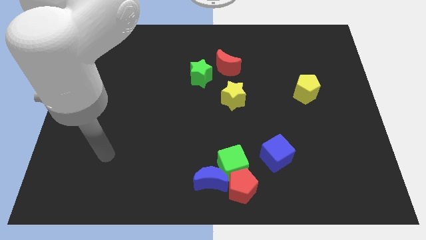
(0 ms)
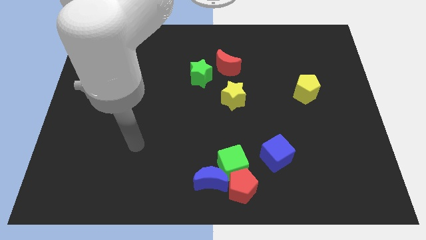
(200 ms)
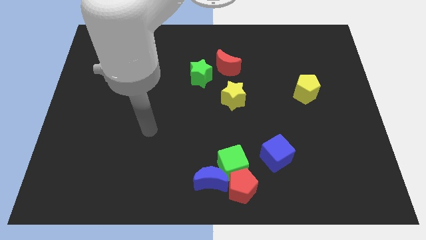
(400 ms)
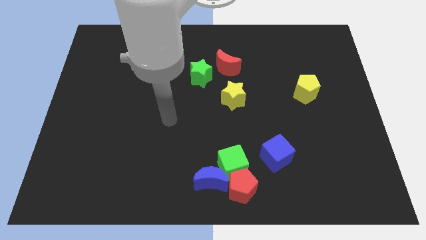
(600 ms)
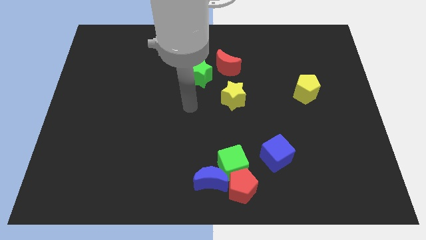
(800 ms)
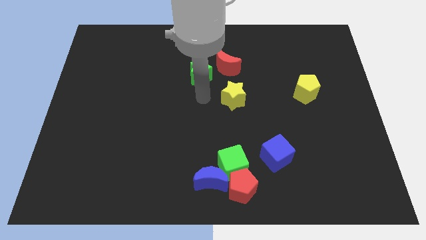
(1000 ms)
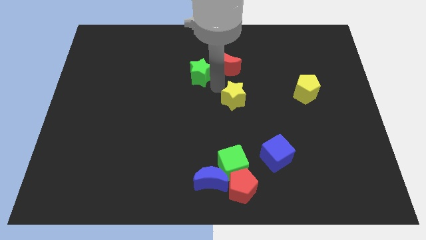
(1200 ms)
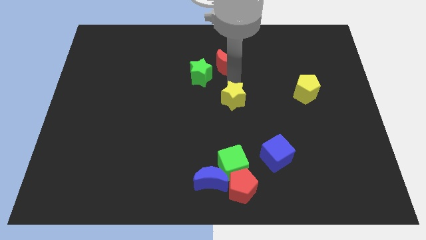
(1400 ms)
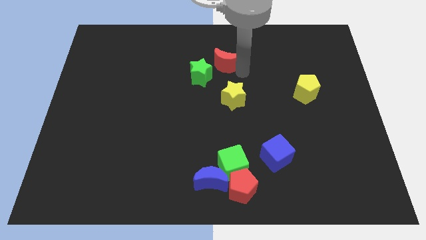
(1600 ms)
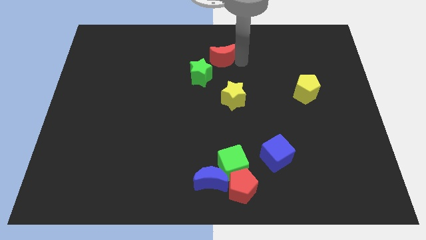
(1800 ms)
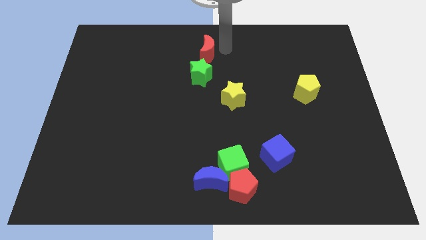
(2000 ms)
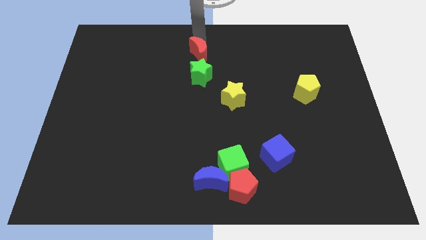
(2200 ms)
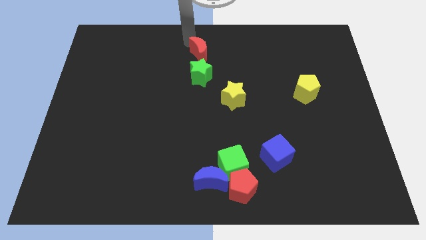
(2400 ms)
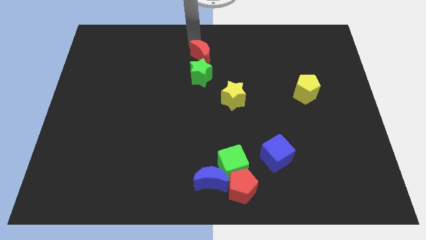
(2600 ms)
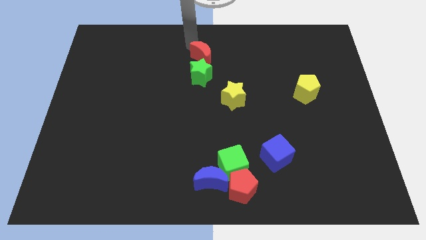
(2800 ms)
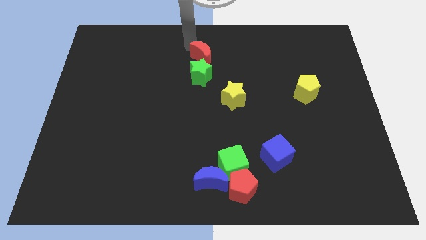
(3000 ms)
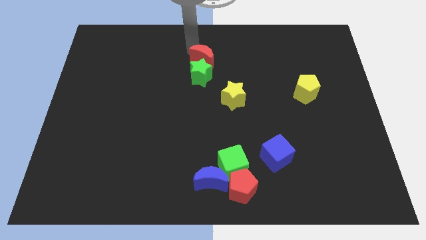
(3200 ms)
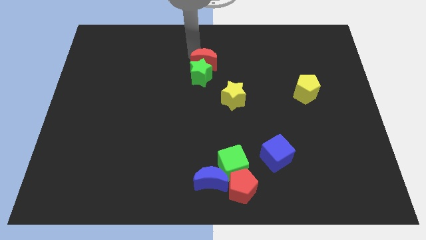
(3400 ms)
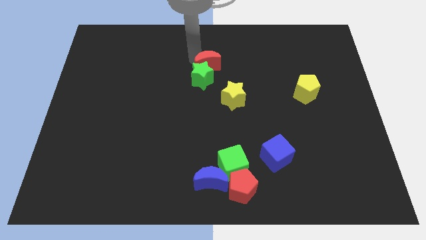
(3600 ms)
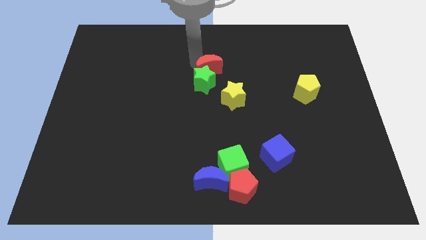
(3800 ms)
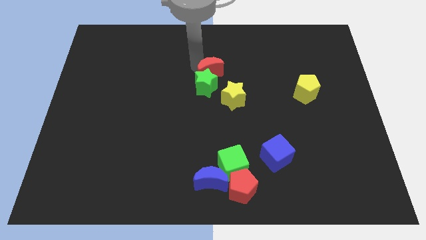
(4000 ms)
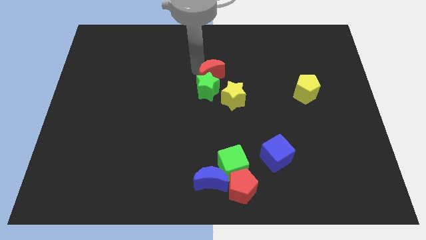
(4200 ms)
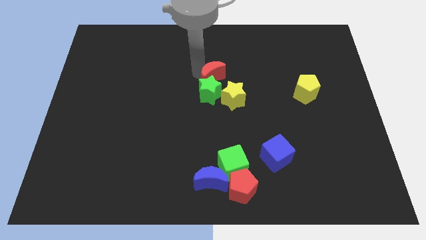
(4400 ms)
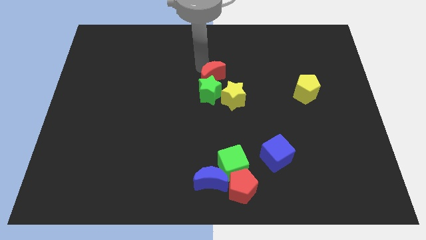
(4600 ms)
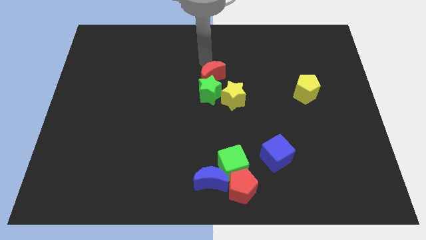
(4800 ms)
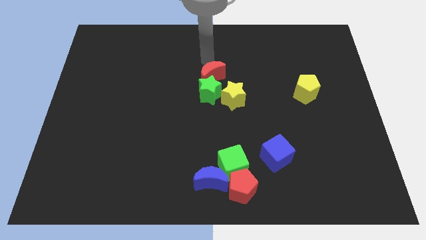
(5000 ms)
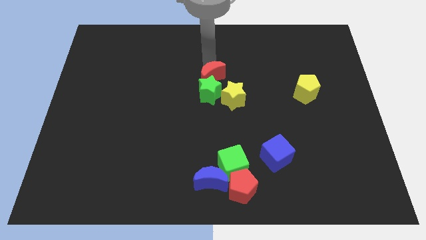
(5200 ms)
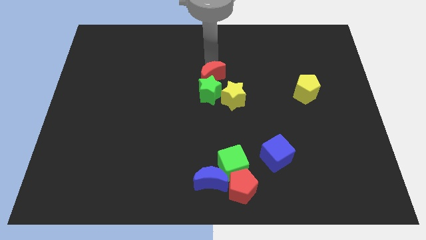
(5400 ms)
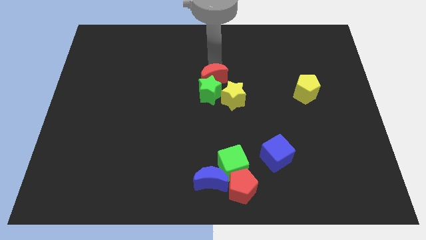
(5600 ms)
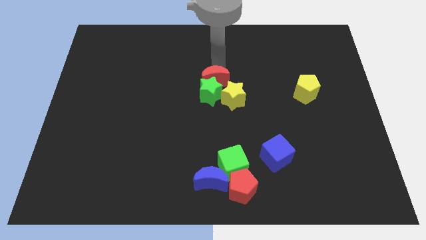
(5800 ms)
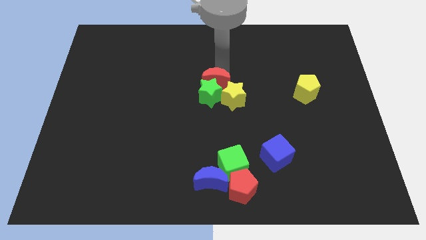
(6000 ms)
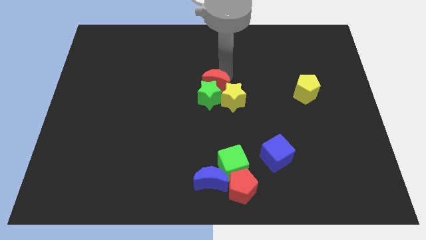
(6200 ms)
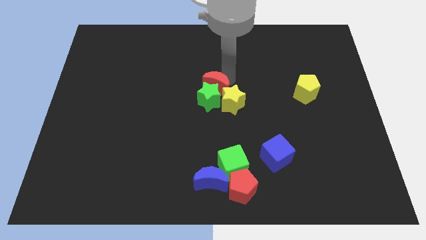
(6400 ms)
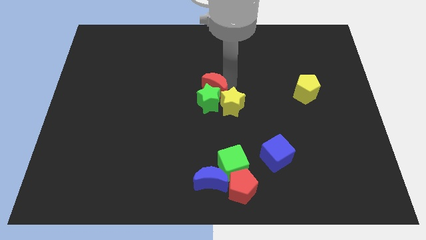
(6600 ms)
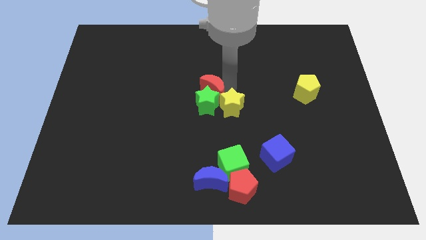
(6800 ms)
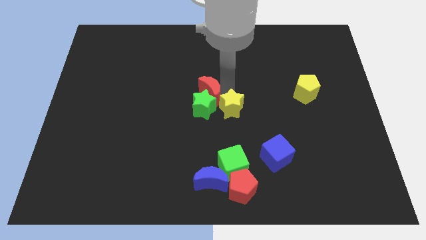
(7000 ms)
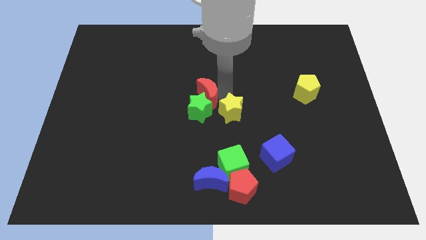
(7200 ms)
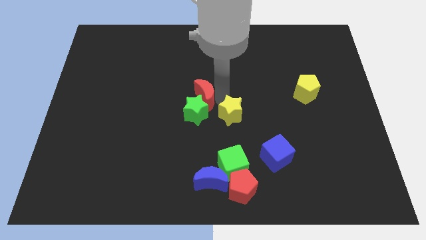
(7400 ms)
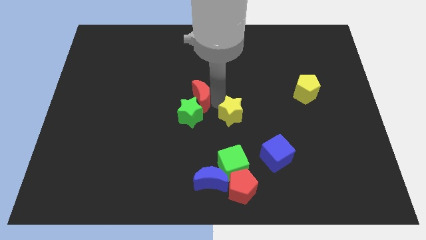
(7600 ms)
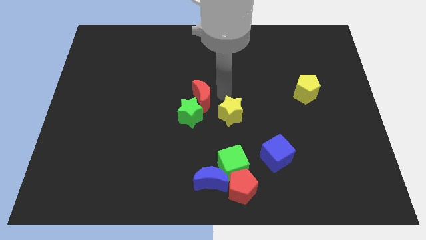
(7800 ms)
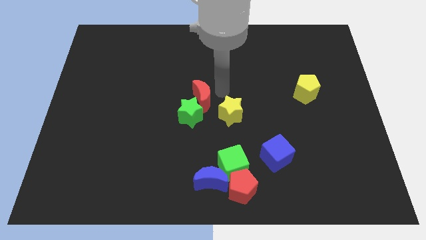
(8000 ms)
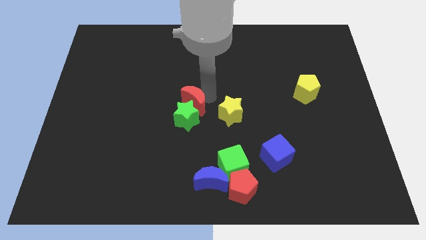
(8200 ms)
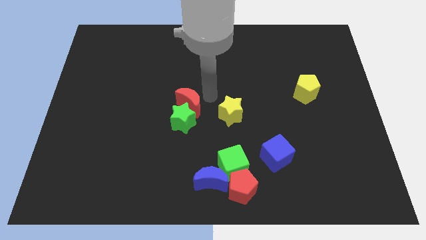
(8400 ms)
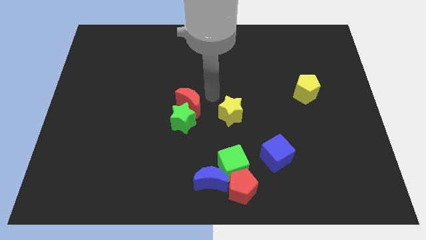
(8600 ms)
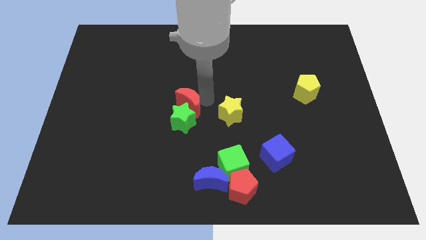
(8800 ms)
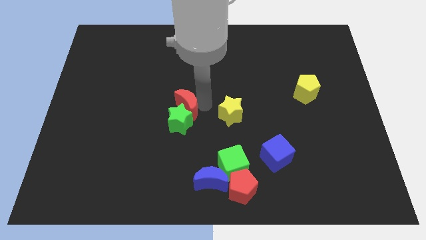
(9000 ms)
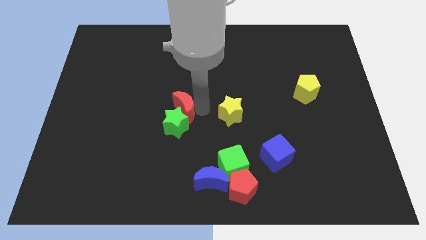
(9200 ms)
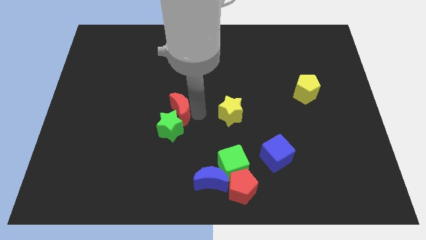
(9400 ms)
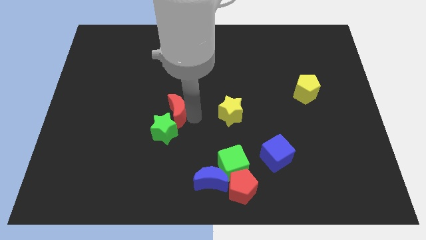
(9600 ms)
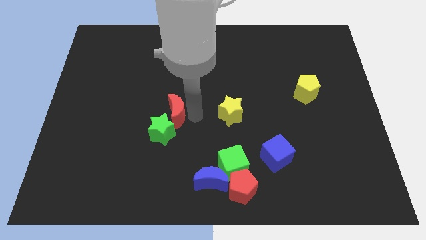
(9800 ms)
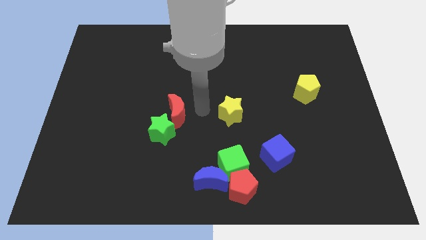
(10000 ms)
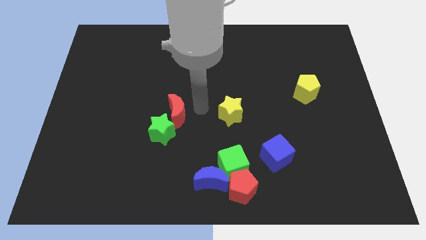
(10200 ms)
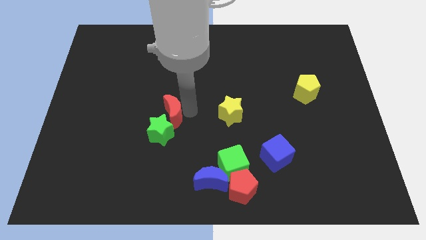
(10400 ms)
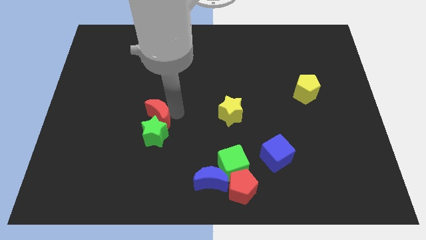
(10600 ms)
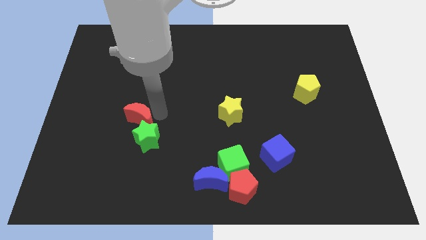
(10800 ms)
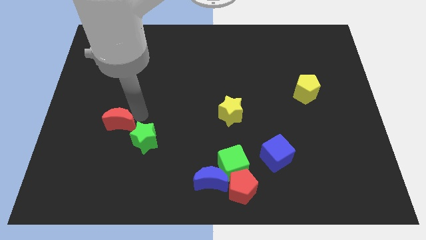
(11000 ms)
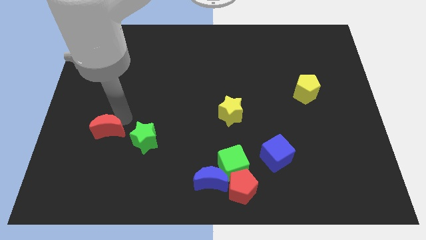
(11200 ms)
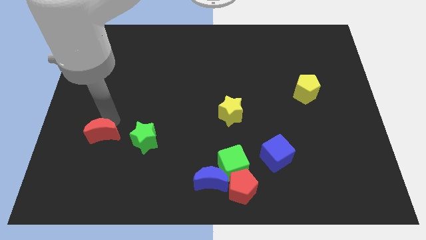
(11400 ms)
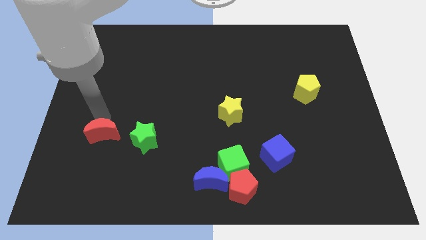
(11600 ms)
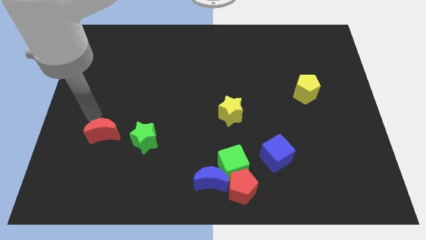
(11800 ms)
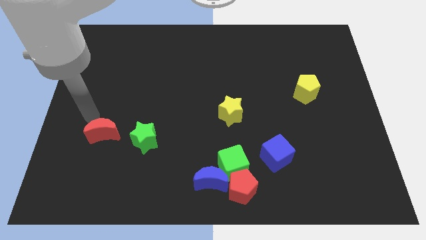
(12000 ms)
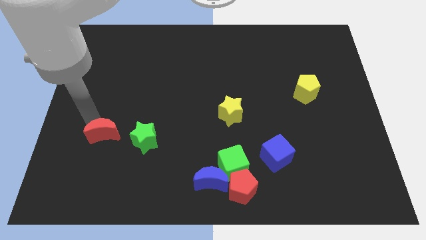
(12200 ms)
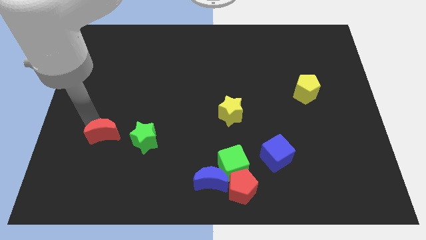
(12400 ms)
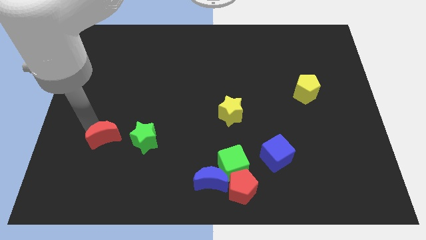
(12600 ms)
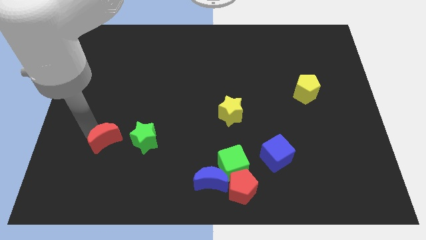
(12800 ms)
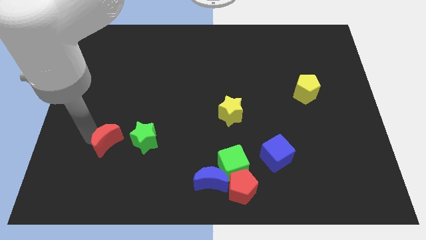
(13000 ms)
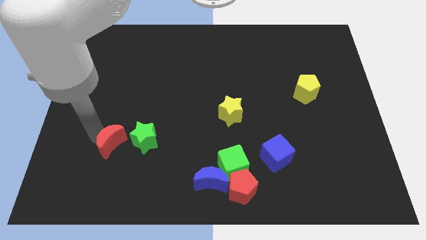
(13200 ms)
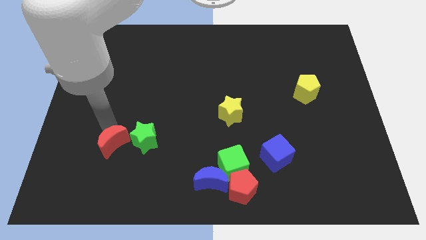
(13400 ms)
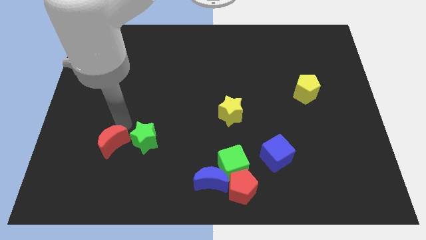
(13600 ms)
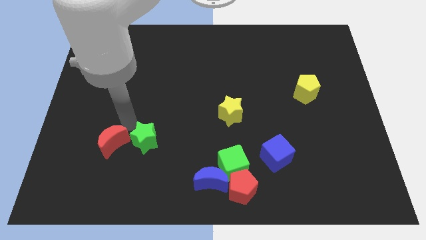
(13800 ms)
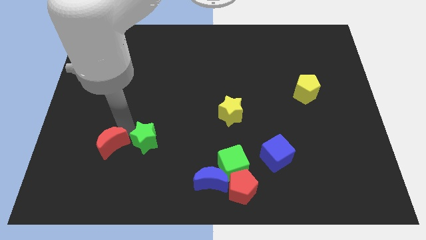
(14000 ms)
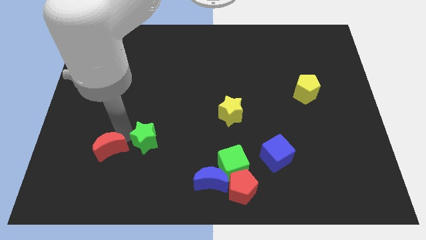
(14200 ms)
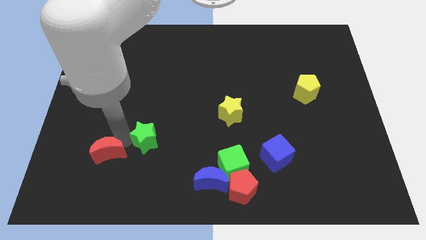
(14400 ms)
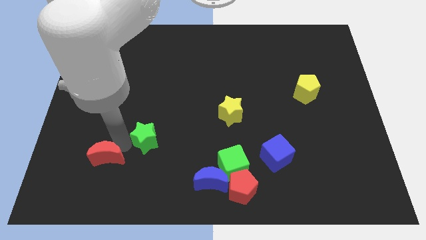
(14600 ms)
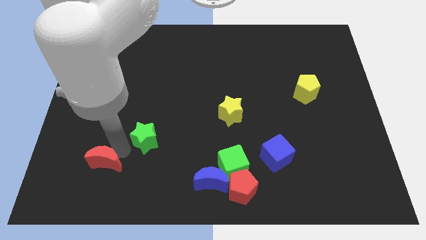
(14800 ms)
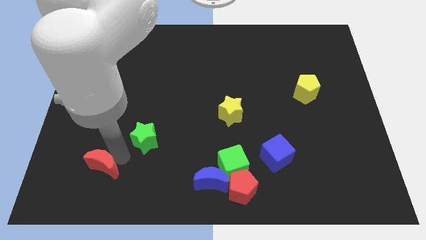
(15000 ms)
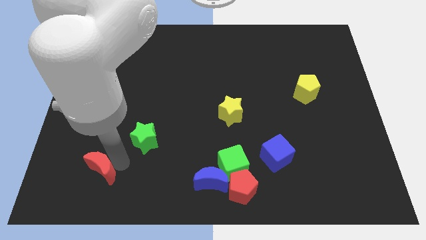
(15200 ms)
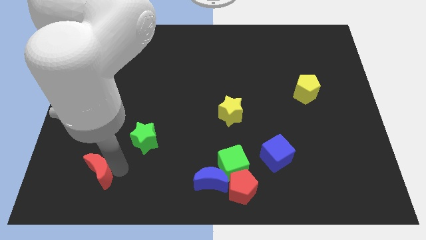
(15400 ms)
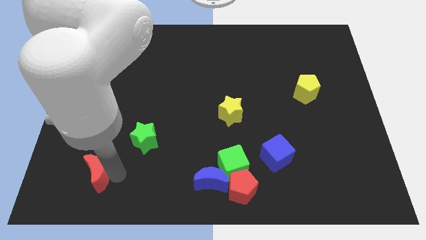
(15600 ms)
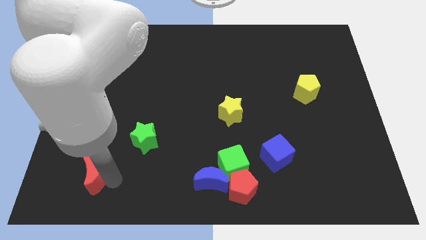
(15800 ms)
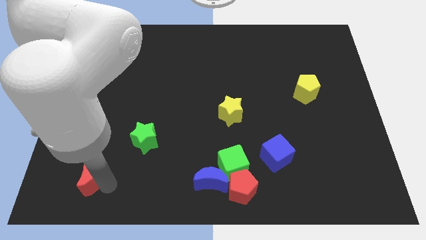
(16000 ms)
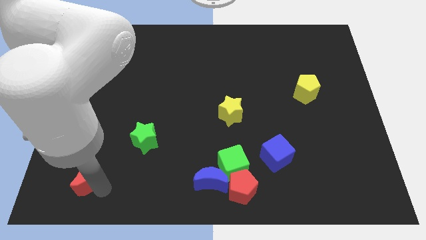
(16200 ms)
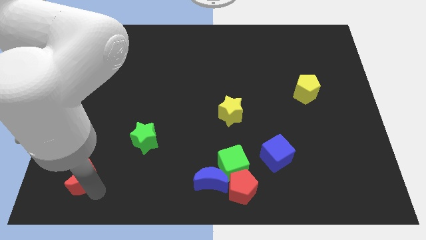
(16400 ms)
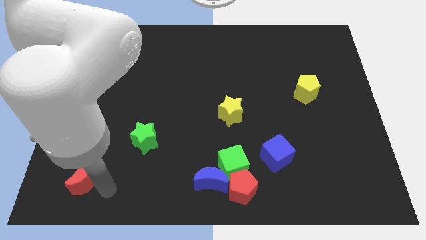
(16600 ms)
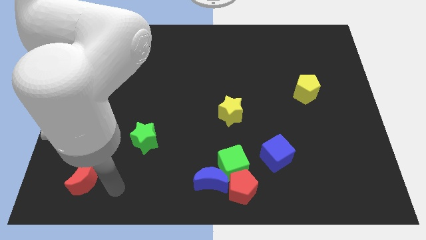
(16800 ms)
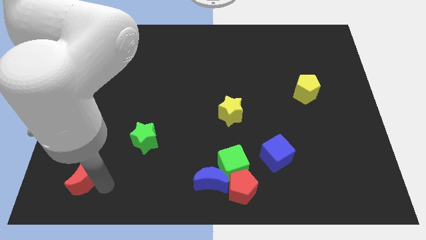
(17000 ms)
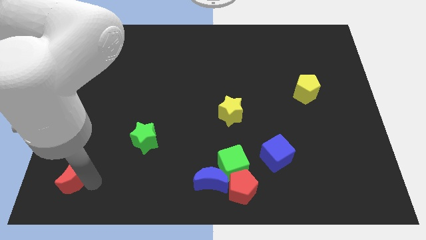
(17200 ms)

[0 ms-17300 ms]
put the red moon to the bottom left corner
